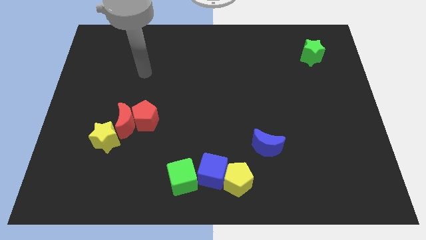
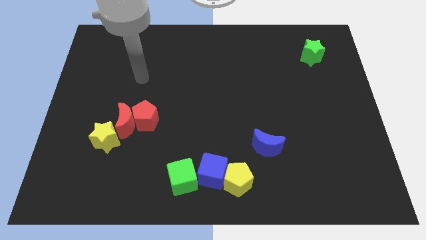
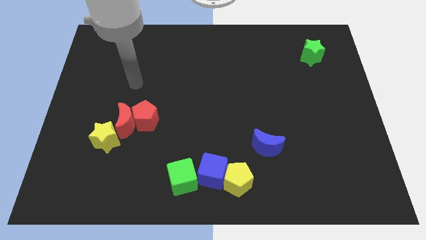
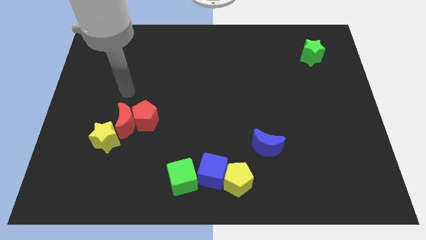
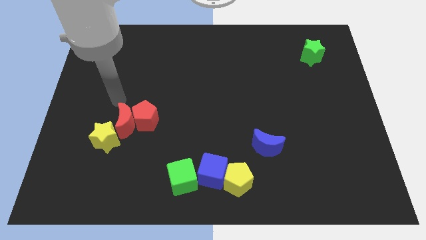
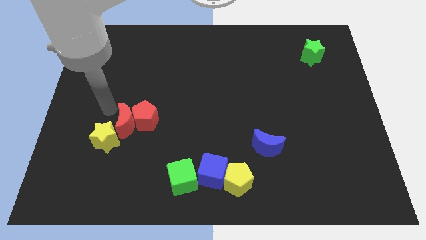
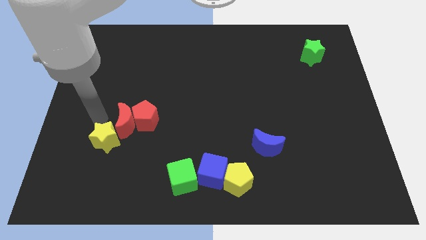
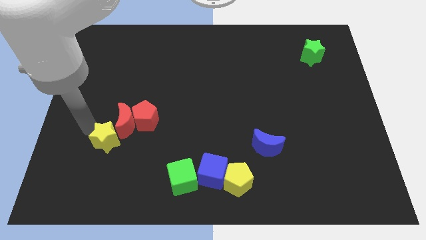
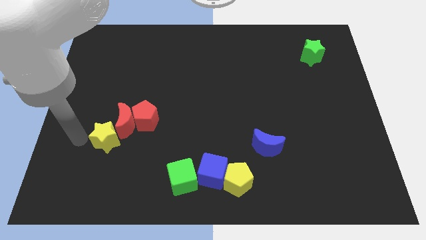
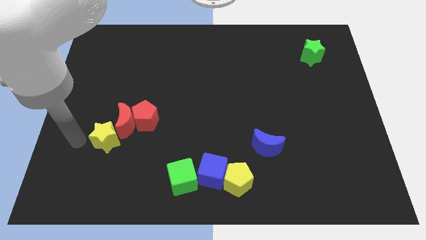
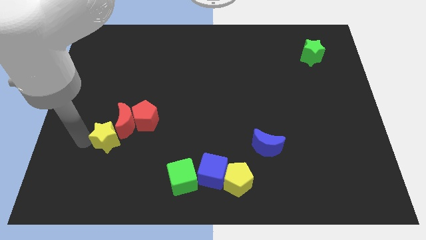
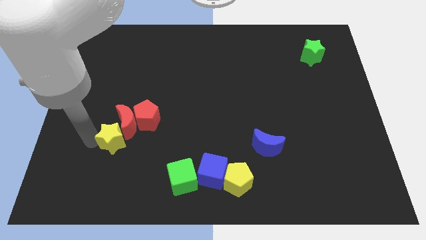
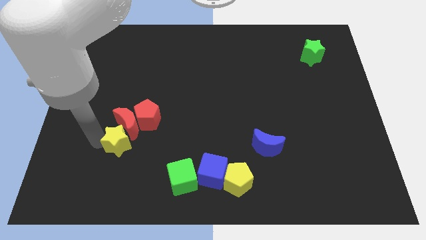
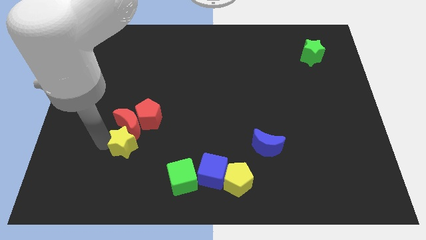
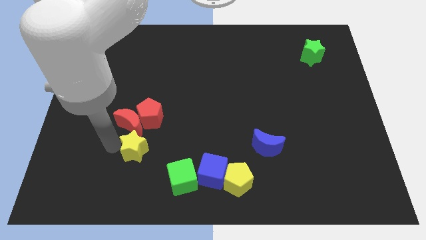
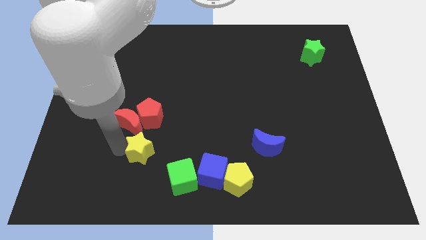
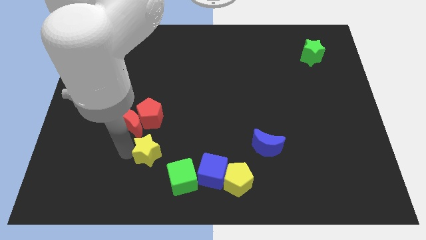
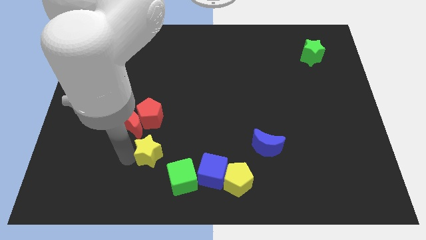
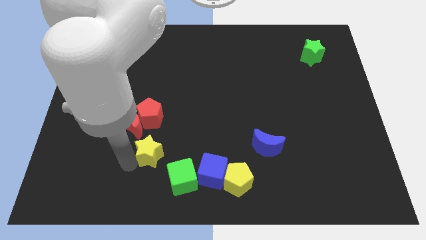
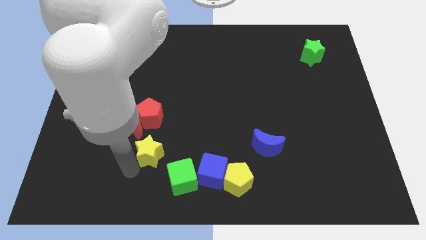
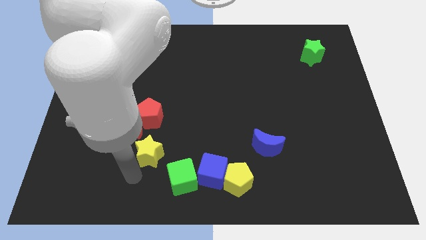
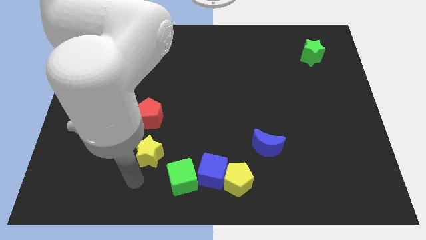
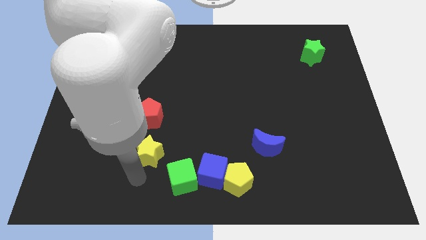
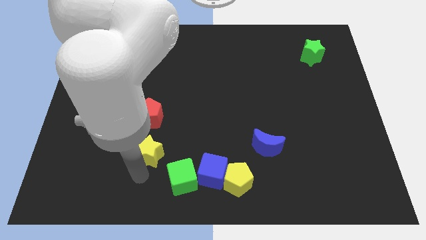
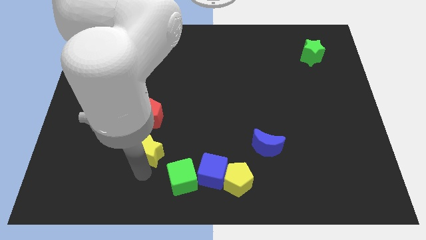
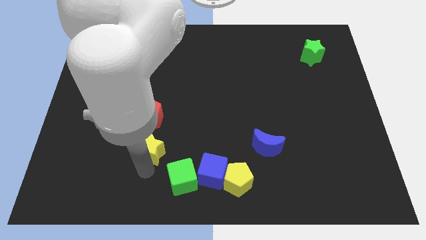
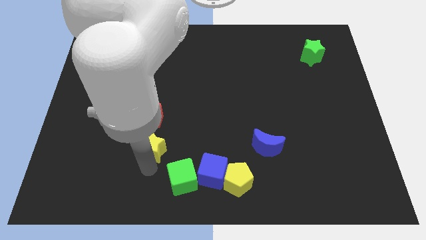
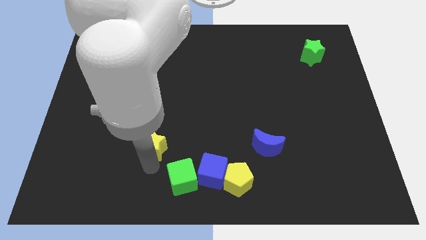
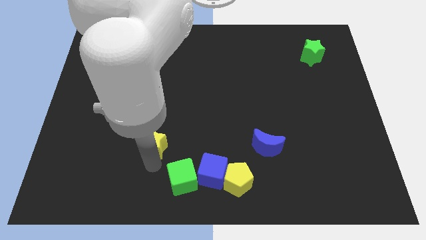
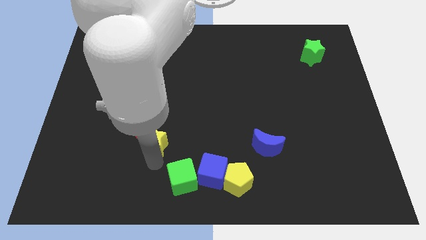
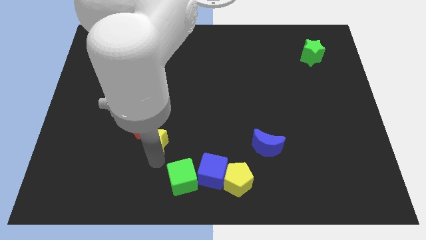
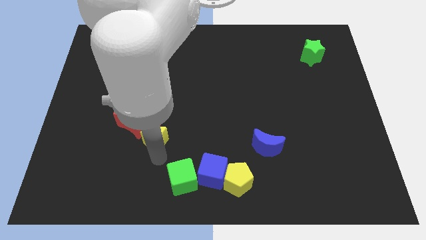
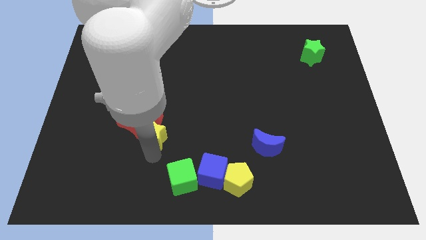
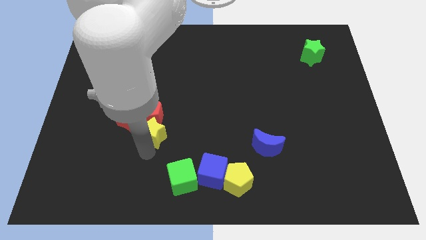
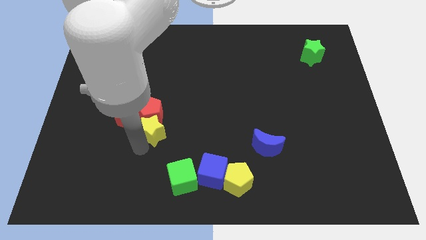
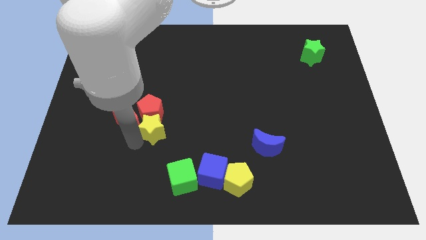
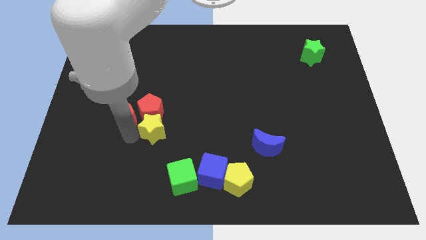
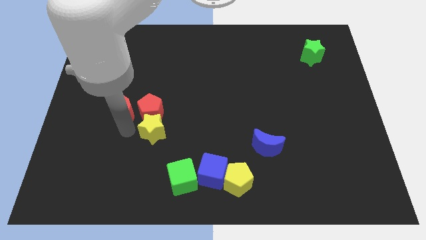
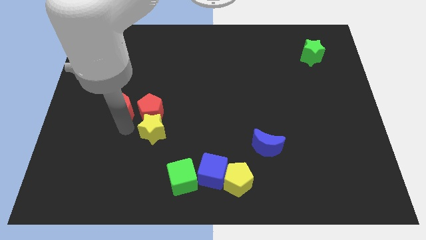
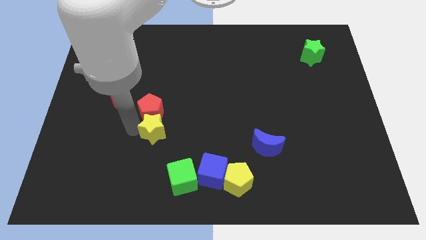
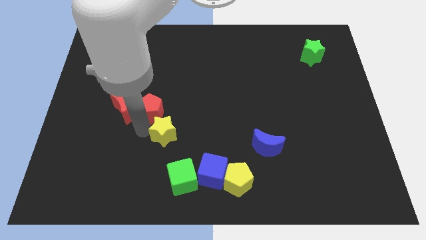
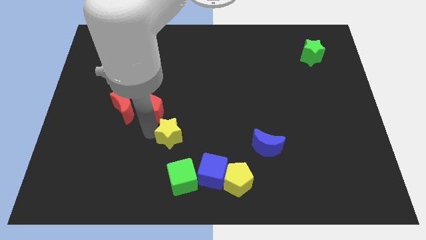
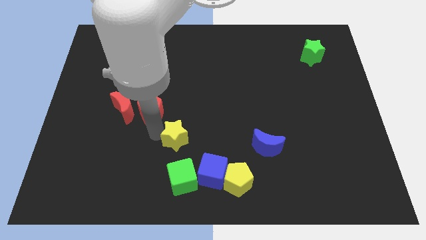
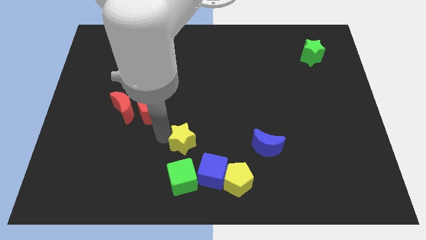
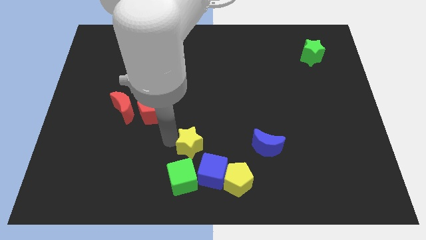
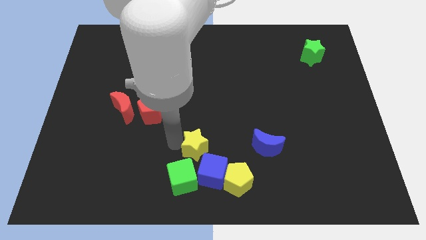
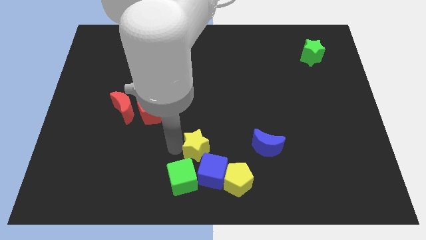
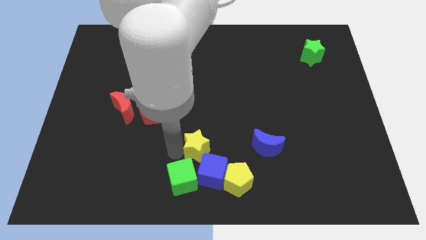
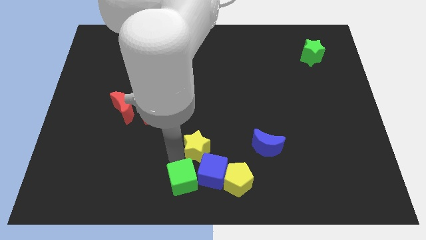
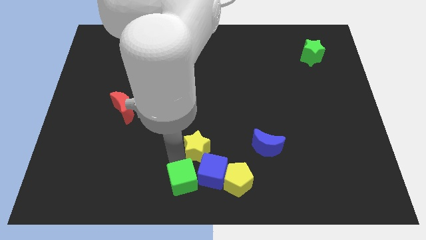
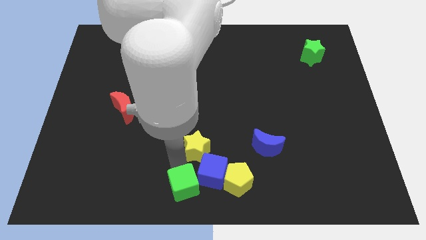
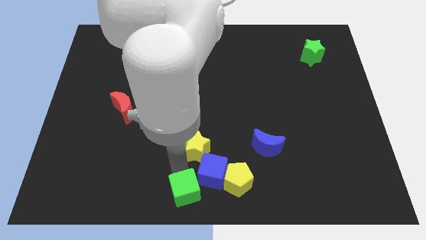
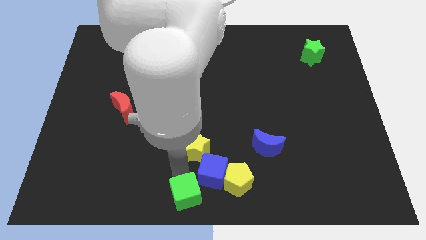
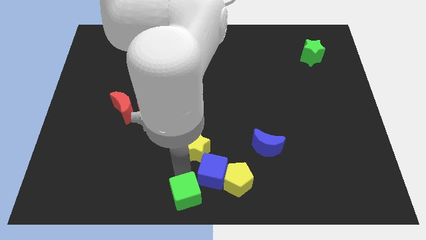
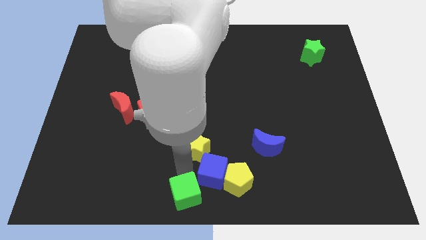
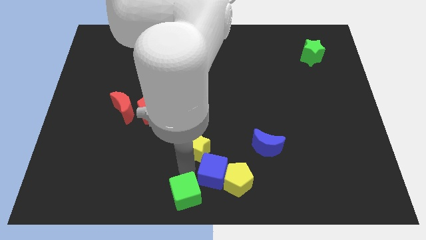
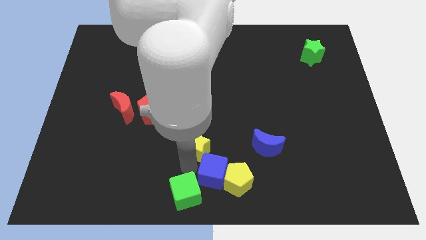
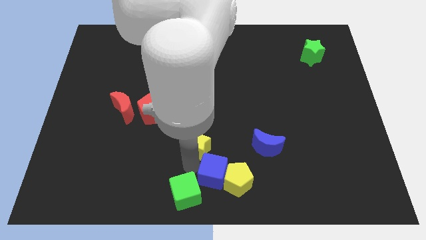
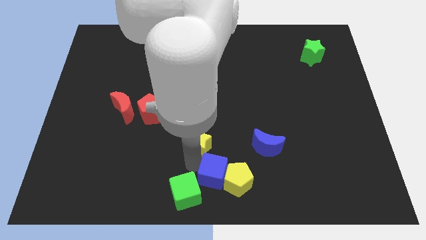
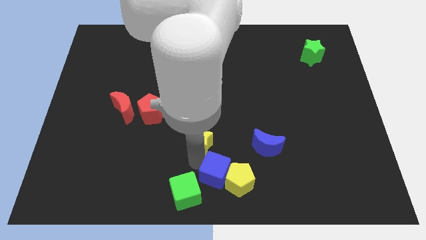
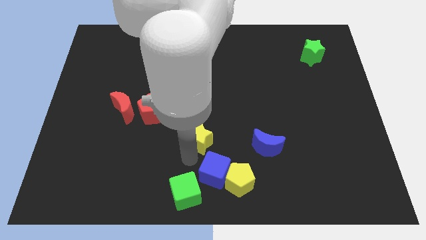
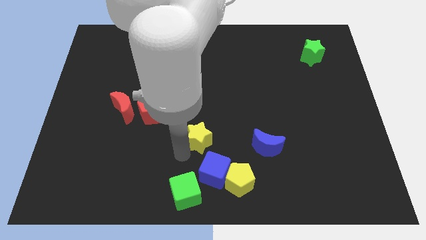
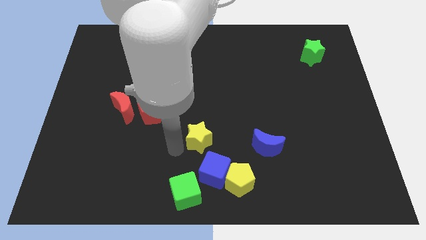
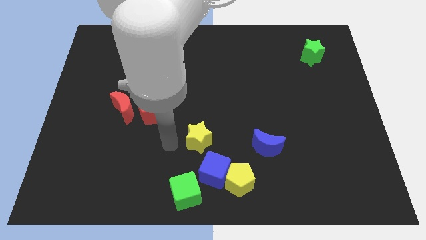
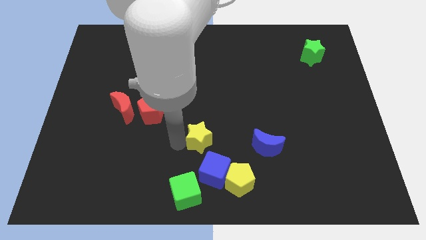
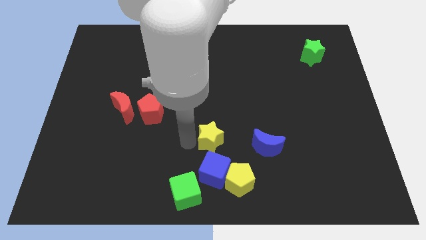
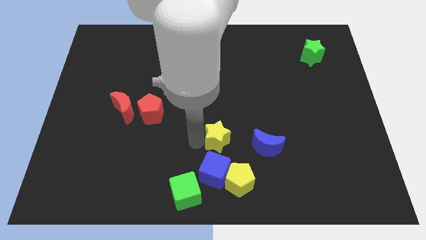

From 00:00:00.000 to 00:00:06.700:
slide the yellow star to the top of the yellow pentagon
